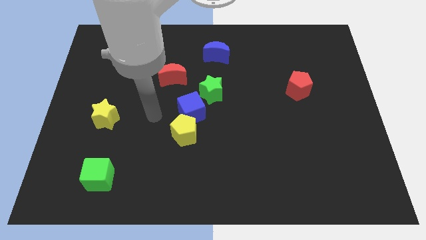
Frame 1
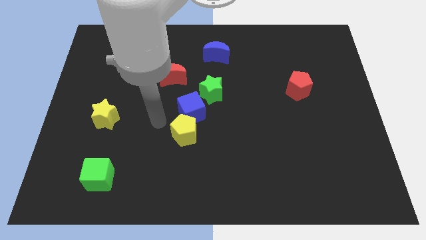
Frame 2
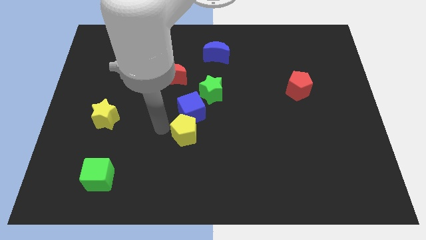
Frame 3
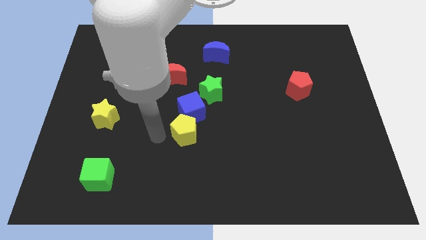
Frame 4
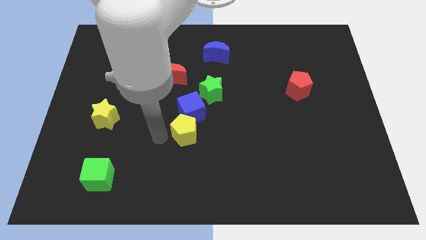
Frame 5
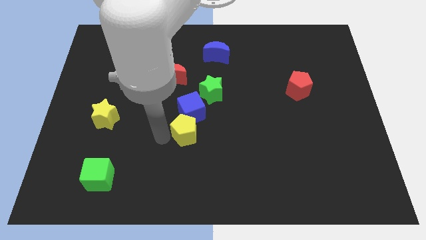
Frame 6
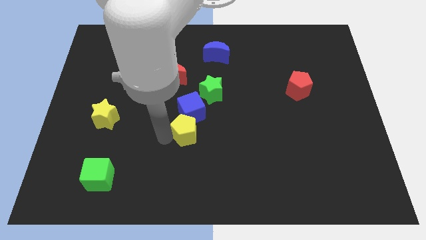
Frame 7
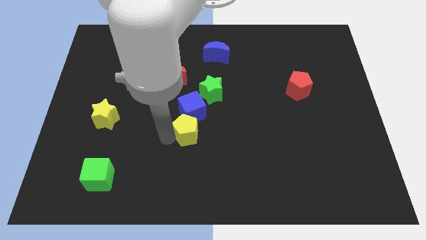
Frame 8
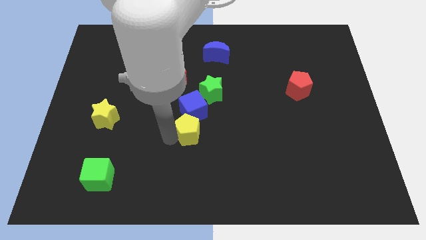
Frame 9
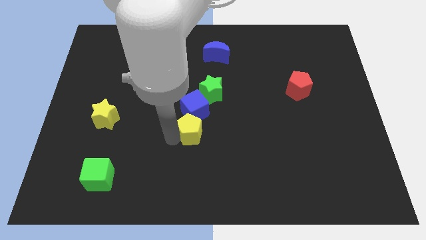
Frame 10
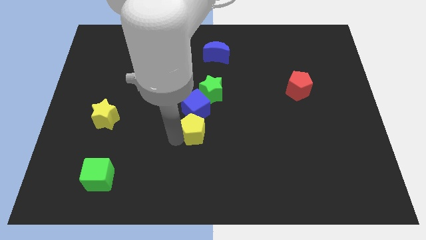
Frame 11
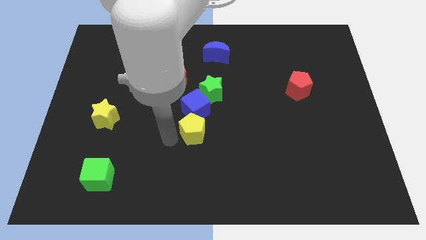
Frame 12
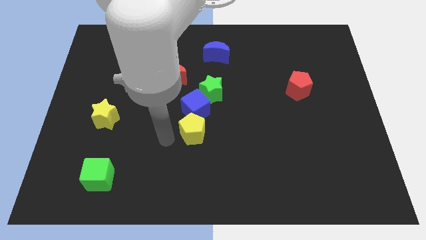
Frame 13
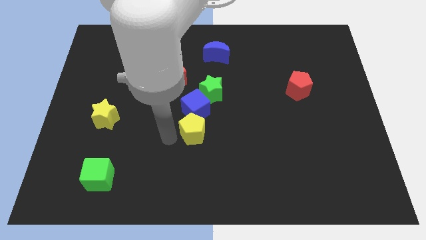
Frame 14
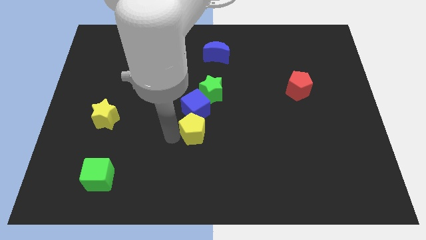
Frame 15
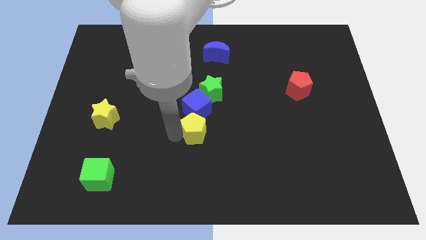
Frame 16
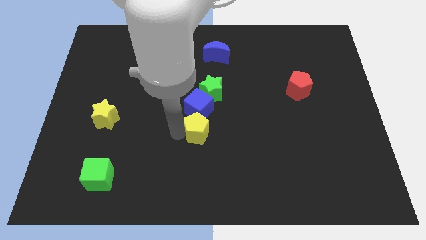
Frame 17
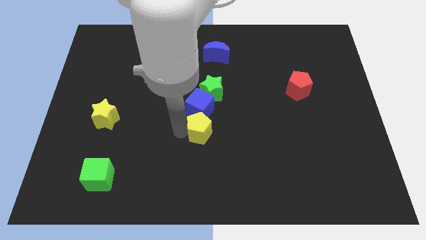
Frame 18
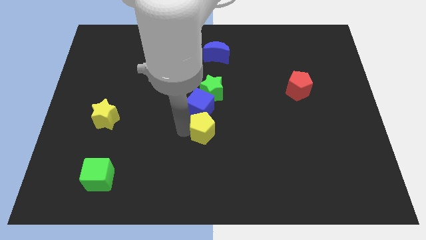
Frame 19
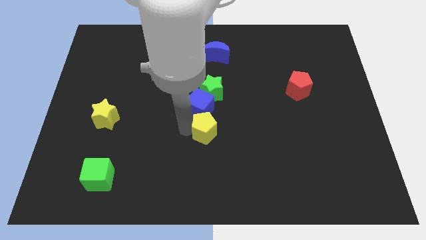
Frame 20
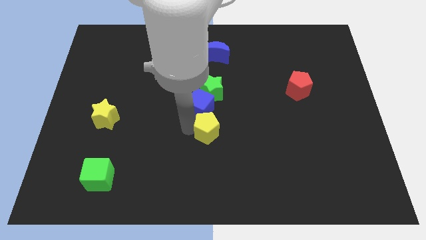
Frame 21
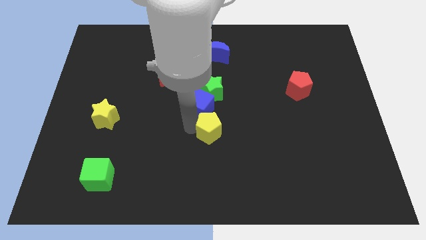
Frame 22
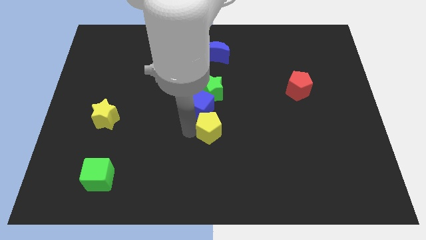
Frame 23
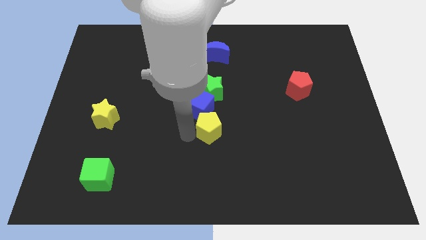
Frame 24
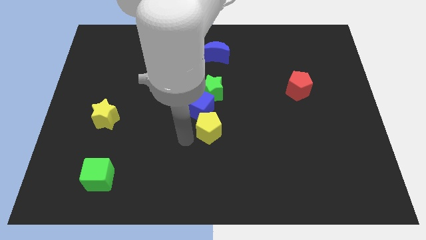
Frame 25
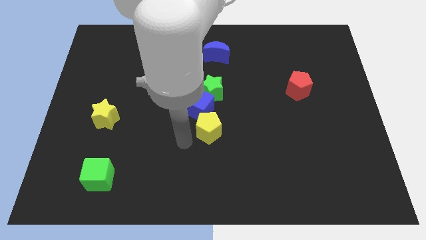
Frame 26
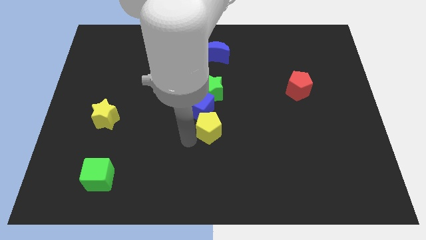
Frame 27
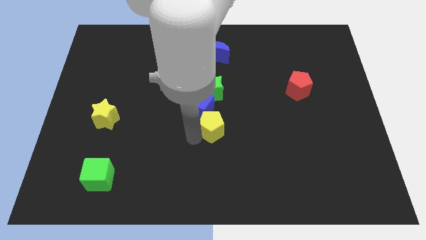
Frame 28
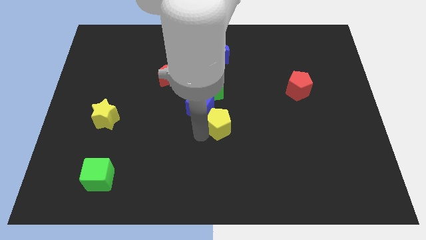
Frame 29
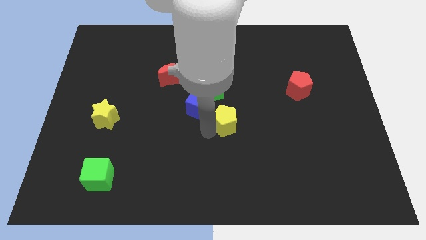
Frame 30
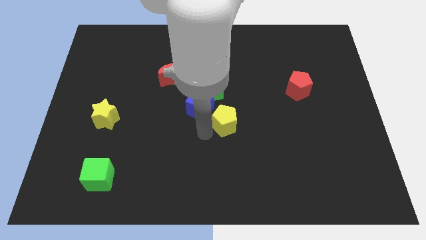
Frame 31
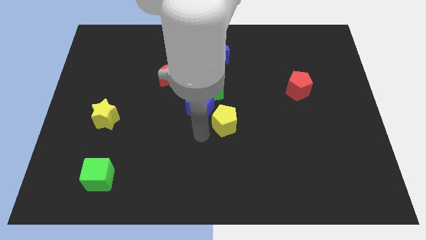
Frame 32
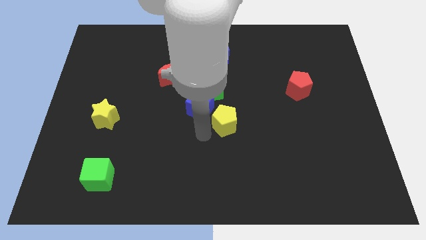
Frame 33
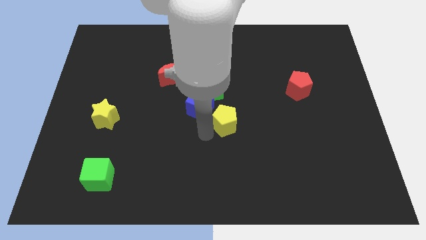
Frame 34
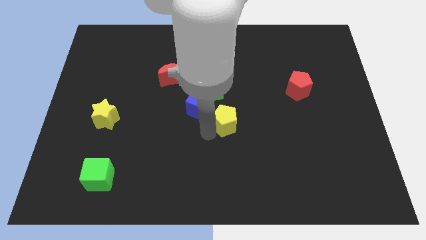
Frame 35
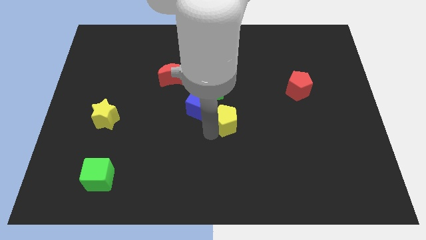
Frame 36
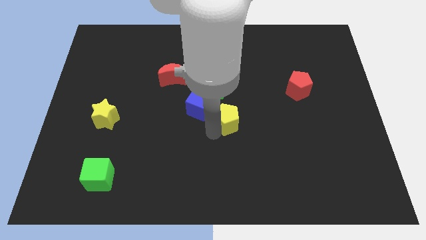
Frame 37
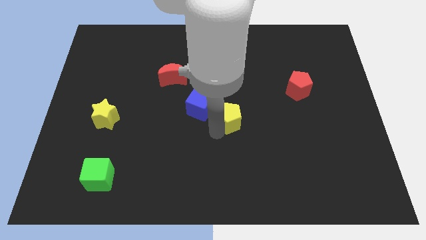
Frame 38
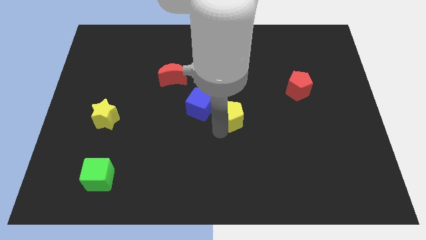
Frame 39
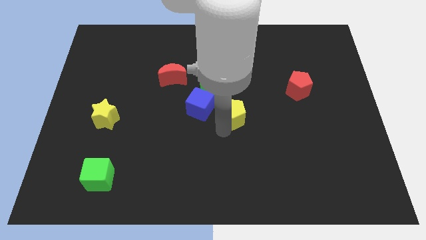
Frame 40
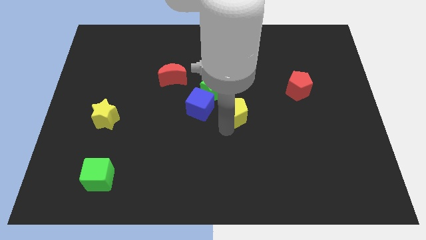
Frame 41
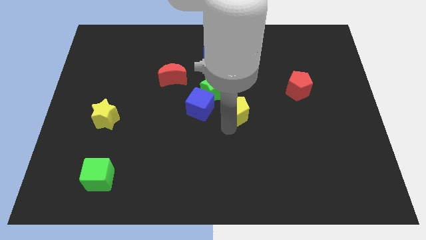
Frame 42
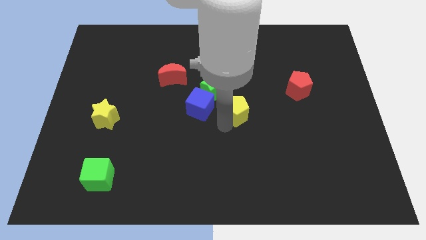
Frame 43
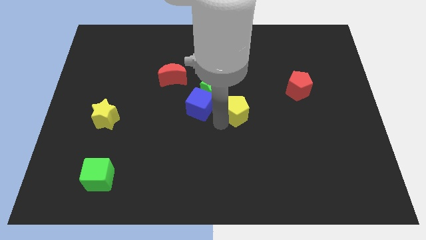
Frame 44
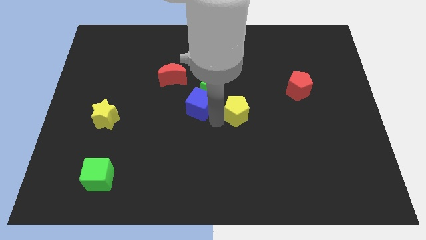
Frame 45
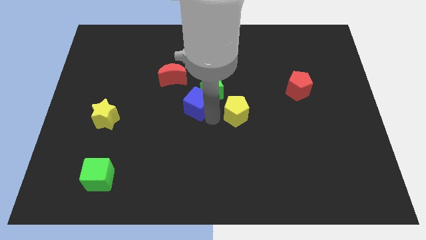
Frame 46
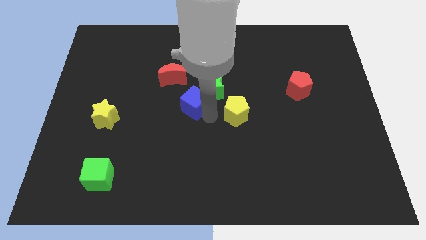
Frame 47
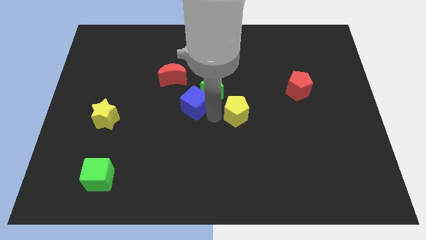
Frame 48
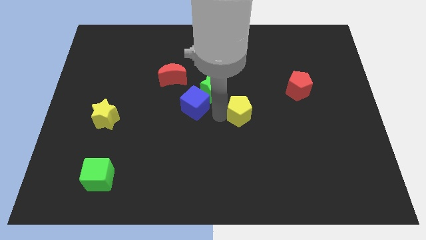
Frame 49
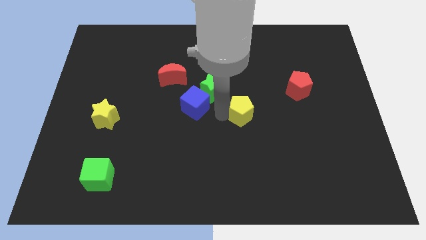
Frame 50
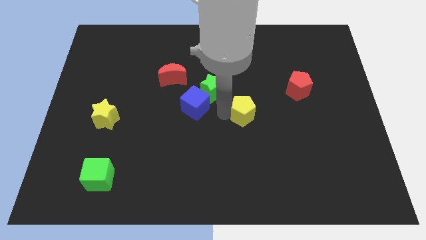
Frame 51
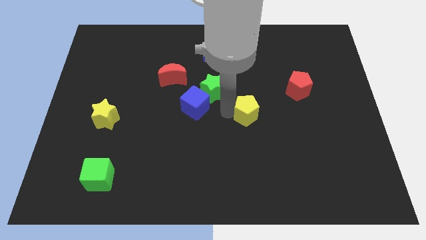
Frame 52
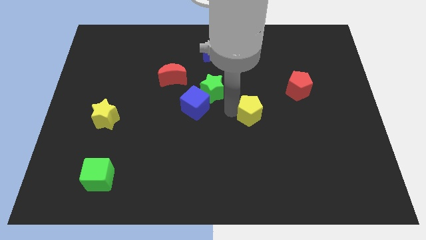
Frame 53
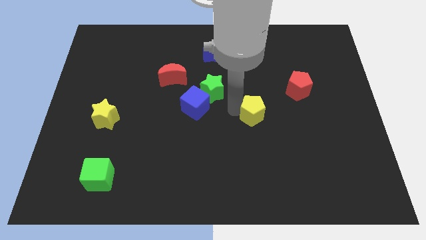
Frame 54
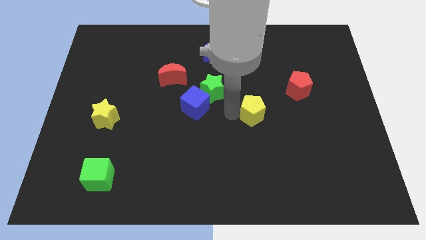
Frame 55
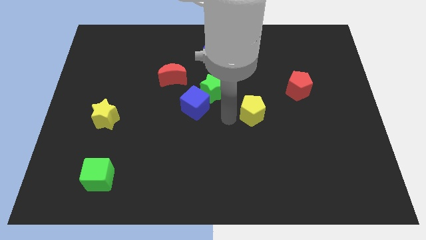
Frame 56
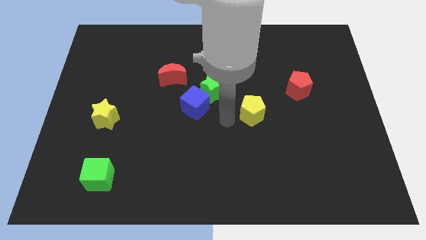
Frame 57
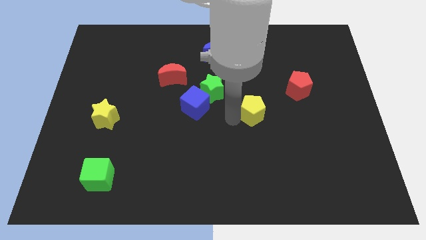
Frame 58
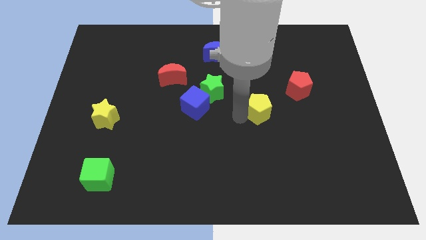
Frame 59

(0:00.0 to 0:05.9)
slide the yellow pentagon to the bottom left of the red pentagon
